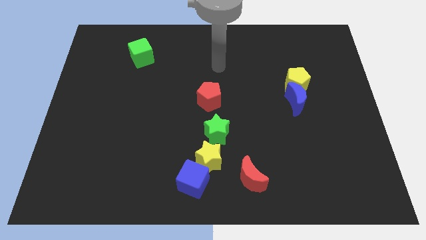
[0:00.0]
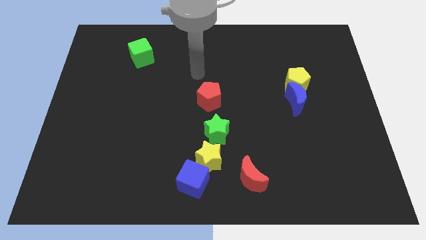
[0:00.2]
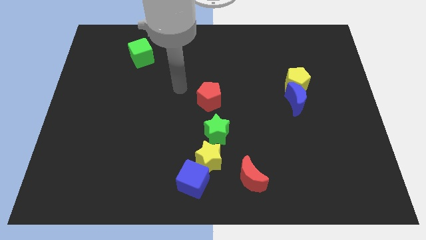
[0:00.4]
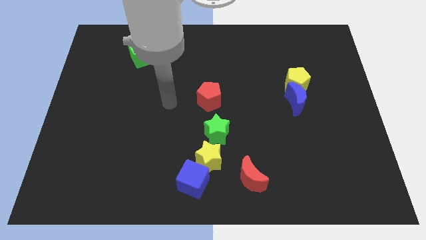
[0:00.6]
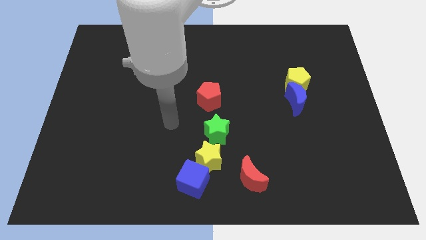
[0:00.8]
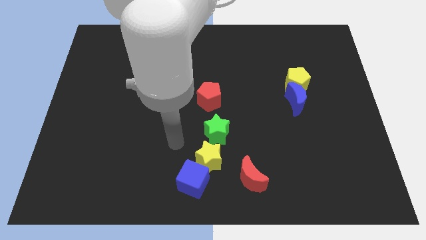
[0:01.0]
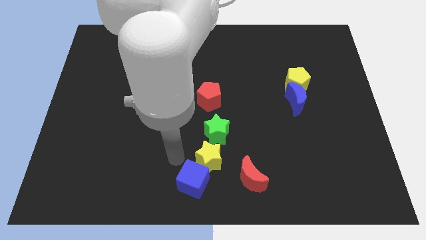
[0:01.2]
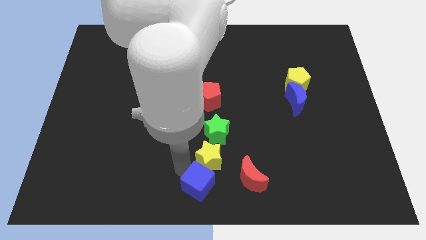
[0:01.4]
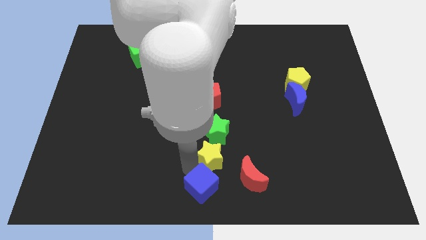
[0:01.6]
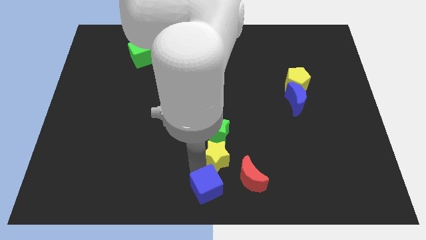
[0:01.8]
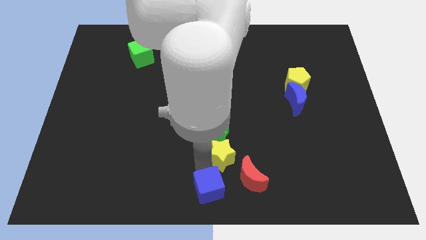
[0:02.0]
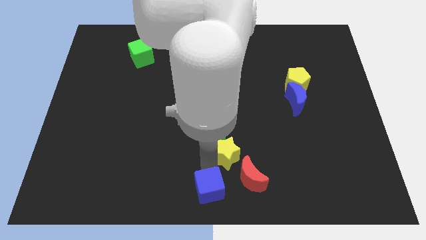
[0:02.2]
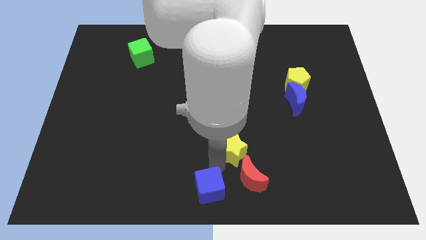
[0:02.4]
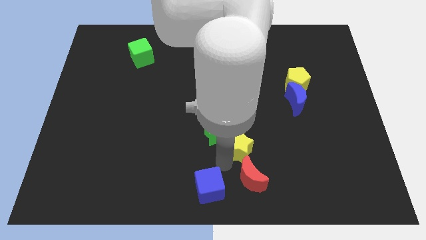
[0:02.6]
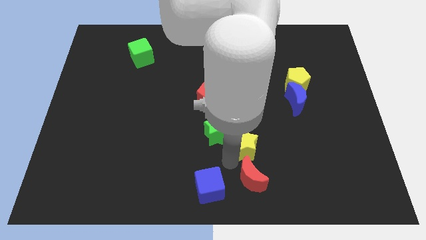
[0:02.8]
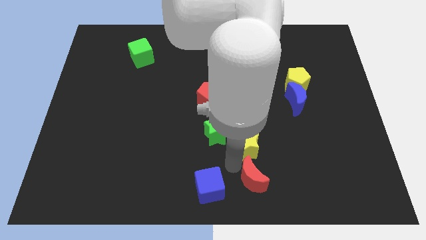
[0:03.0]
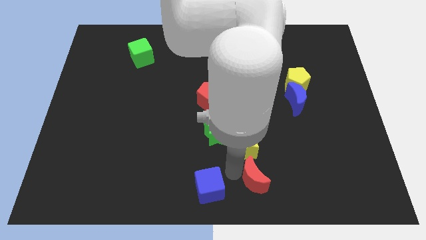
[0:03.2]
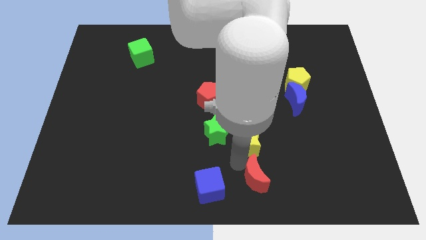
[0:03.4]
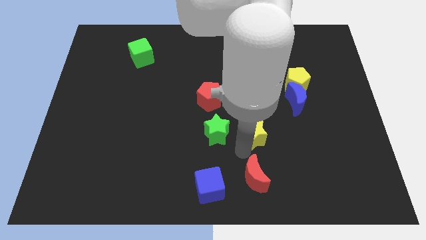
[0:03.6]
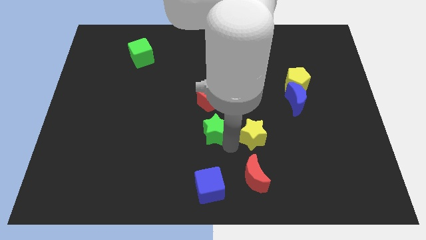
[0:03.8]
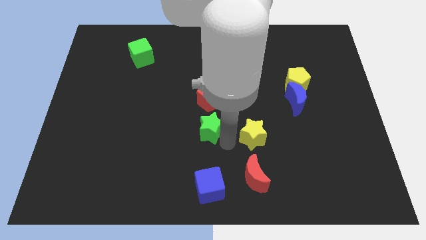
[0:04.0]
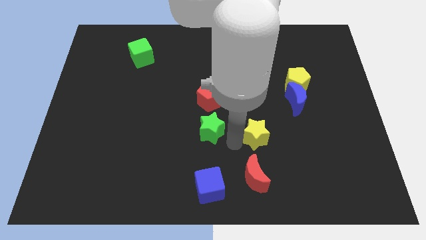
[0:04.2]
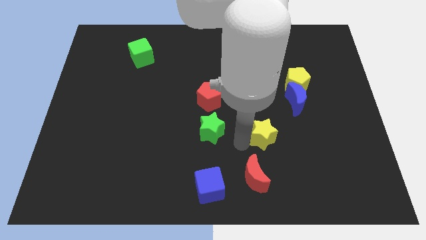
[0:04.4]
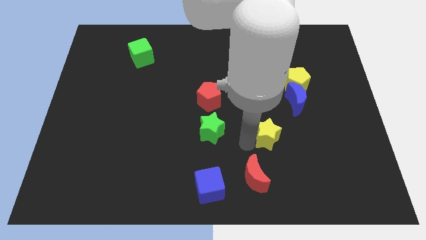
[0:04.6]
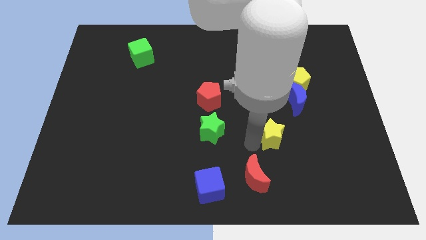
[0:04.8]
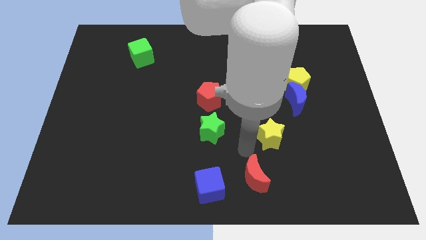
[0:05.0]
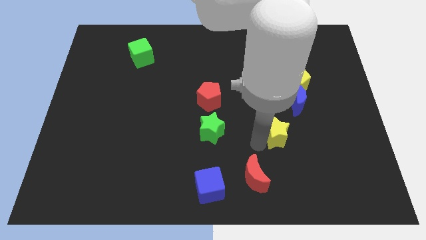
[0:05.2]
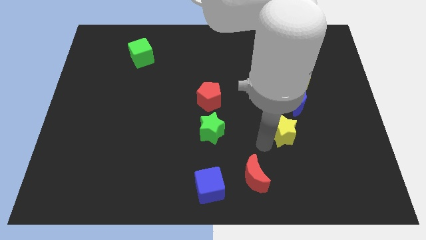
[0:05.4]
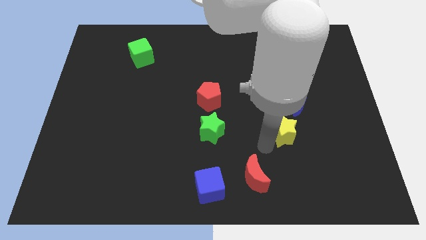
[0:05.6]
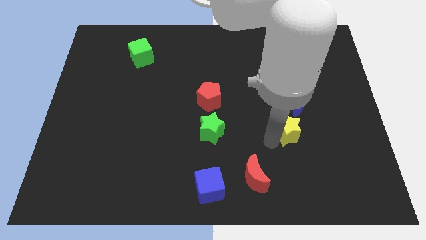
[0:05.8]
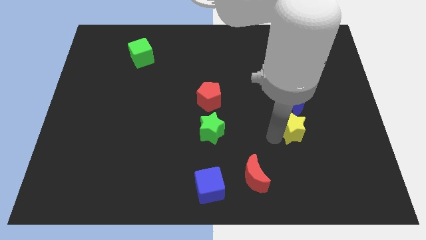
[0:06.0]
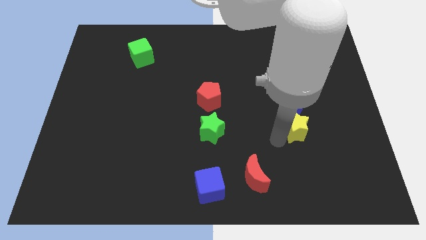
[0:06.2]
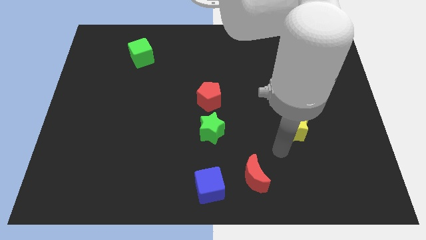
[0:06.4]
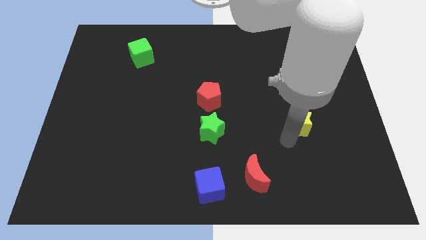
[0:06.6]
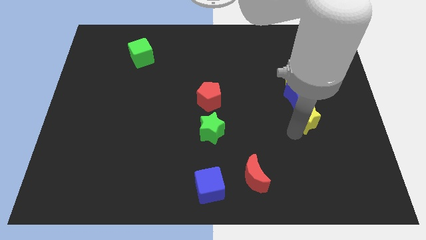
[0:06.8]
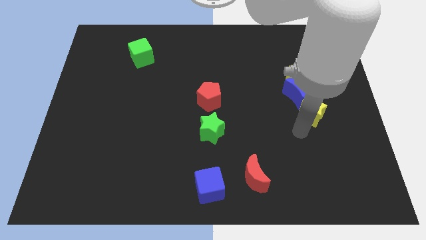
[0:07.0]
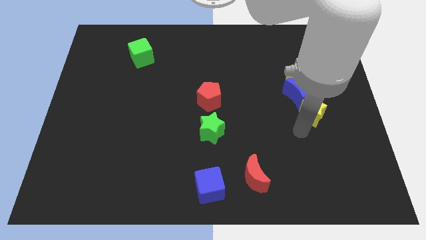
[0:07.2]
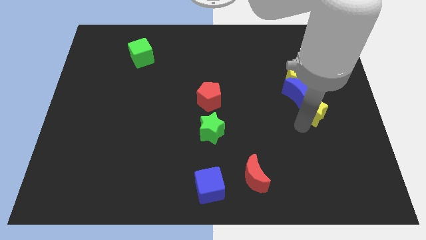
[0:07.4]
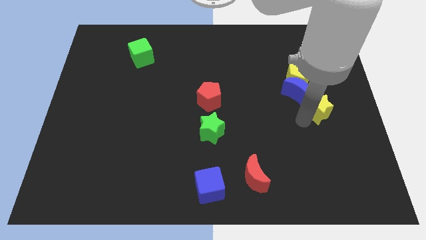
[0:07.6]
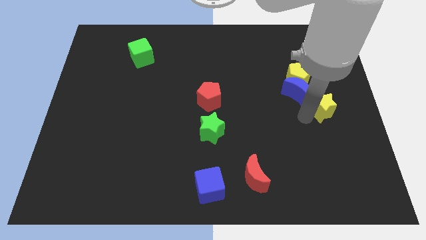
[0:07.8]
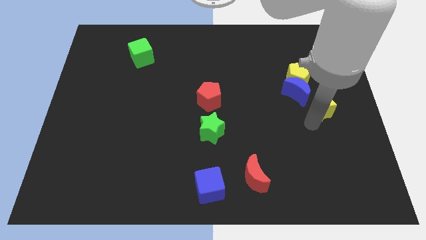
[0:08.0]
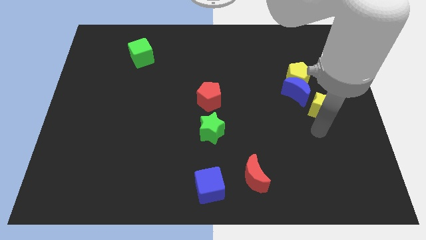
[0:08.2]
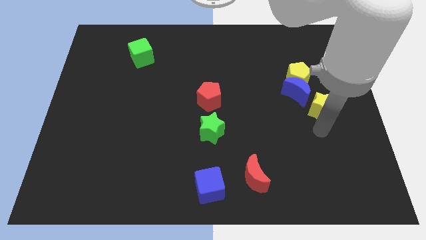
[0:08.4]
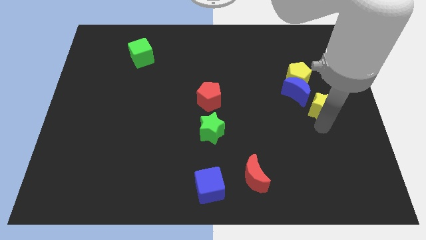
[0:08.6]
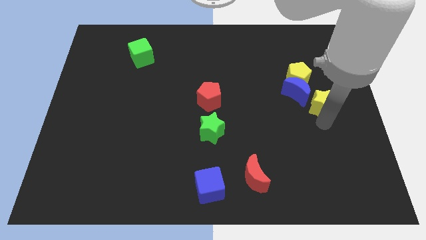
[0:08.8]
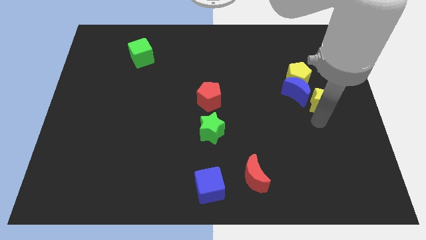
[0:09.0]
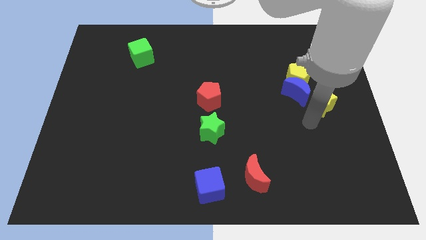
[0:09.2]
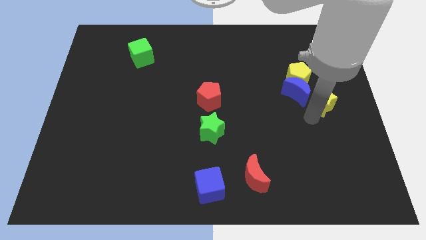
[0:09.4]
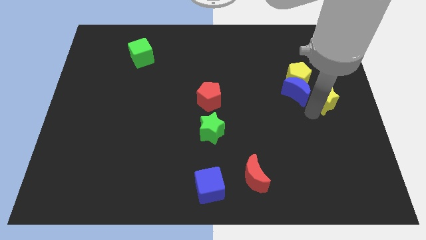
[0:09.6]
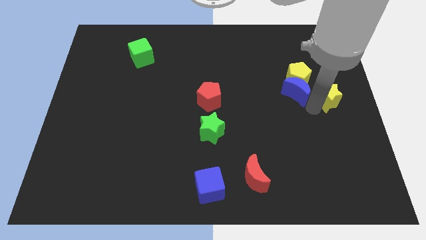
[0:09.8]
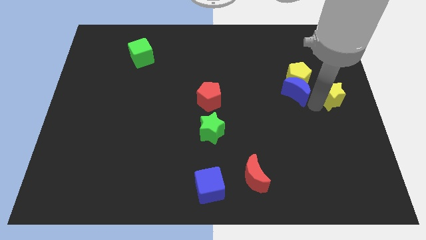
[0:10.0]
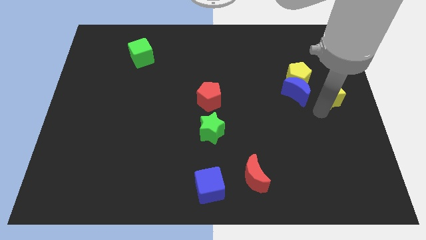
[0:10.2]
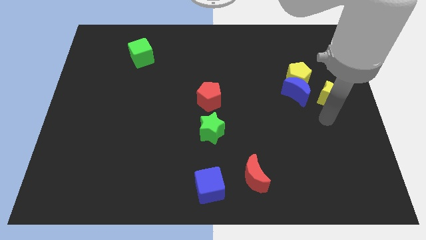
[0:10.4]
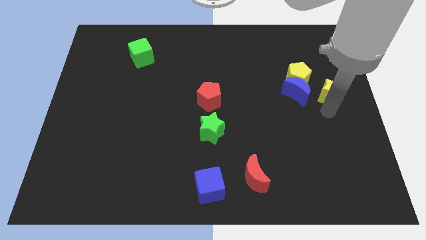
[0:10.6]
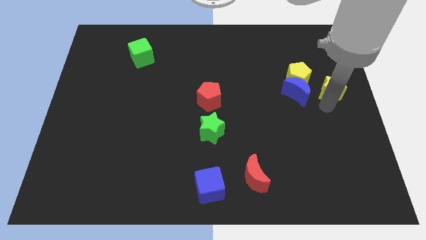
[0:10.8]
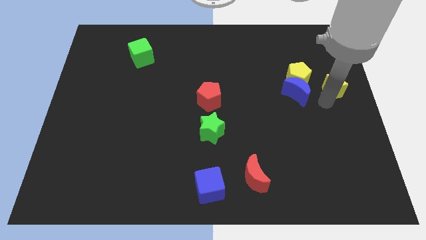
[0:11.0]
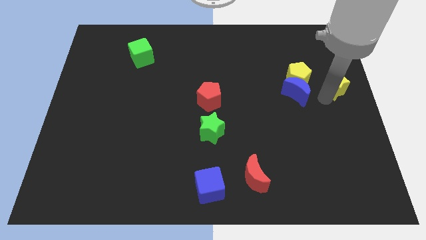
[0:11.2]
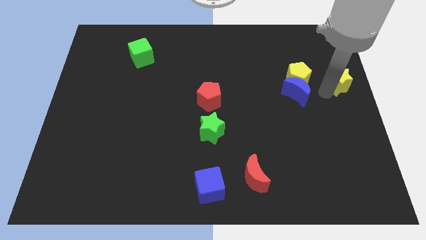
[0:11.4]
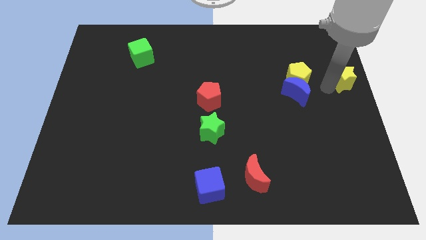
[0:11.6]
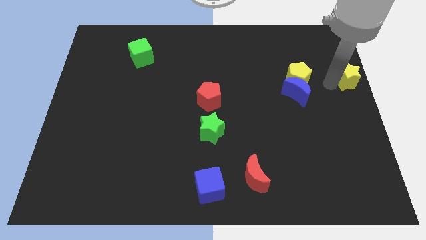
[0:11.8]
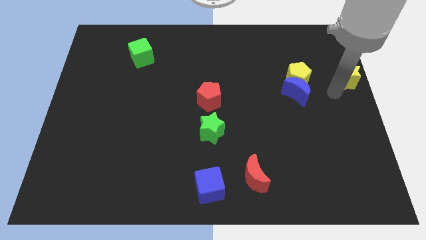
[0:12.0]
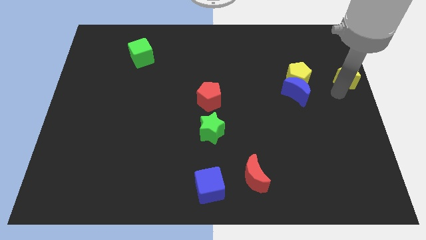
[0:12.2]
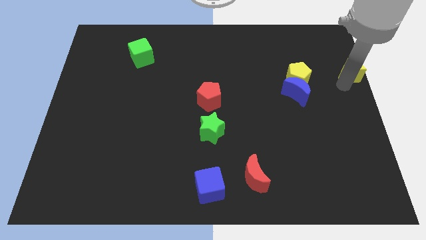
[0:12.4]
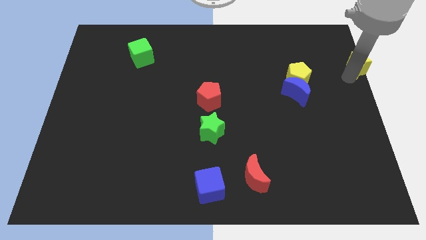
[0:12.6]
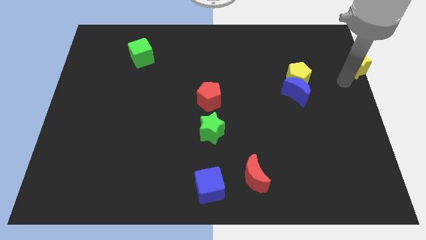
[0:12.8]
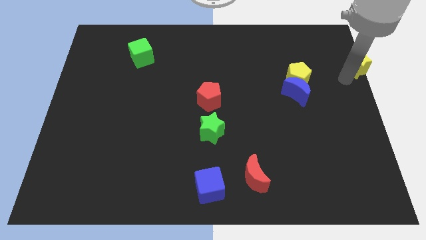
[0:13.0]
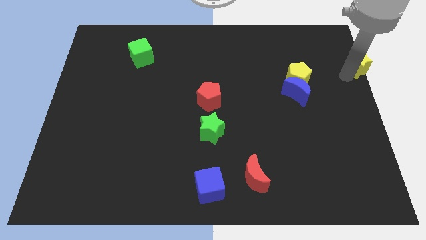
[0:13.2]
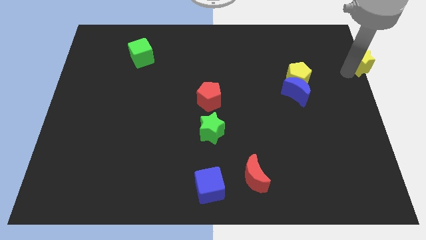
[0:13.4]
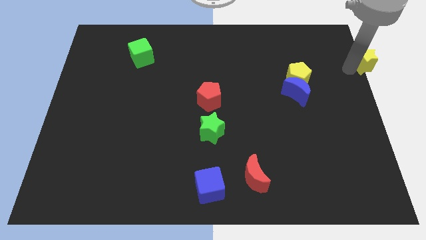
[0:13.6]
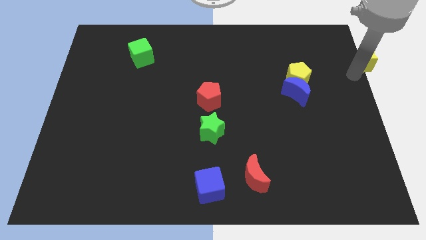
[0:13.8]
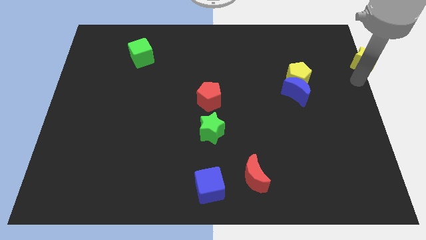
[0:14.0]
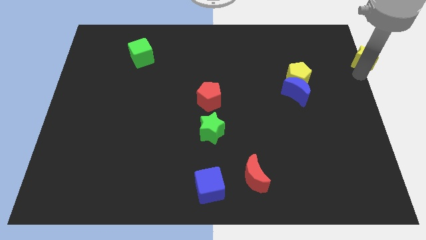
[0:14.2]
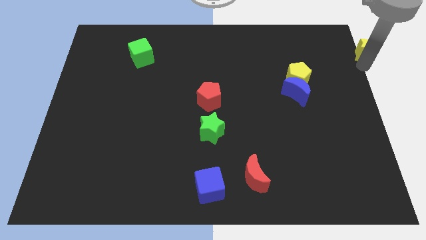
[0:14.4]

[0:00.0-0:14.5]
push the yellow star to the top right of the board
